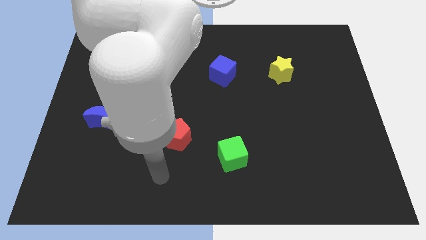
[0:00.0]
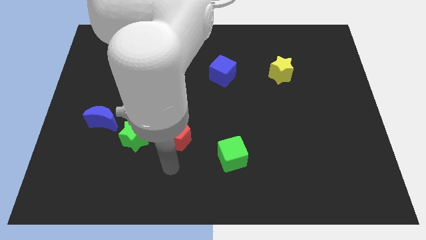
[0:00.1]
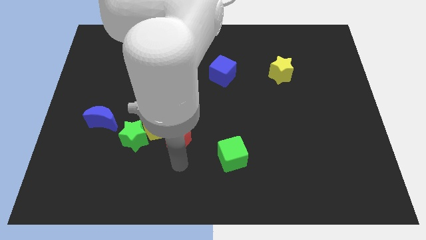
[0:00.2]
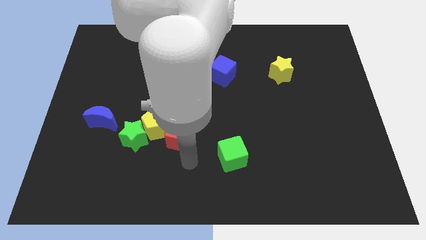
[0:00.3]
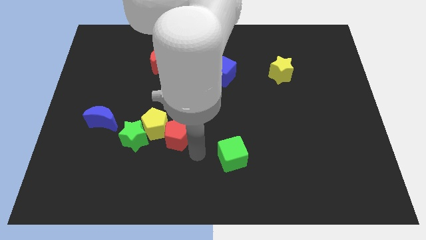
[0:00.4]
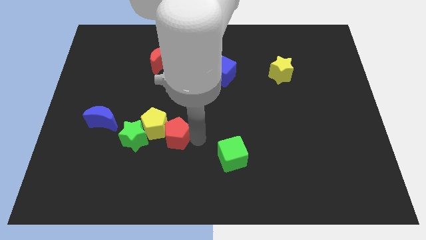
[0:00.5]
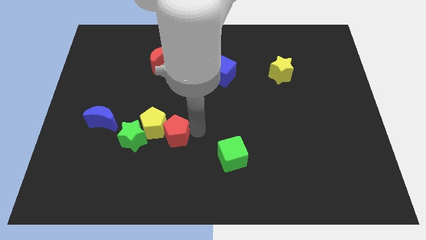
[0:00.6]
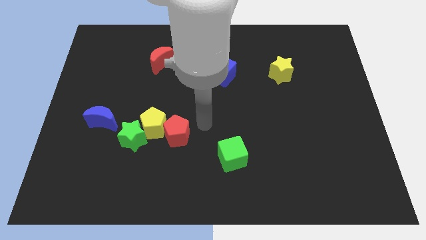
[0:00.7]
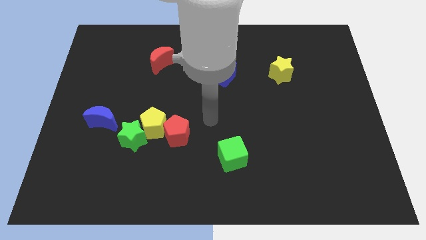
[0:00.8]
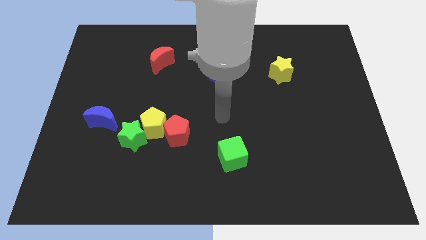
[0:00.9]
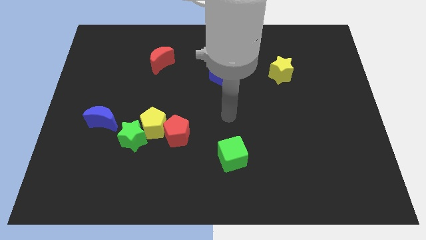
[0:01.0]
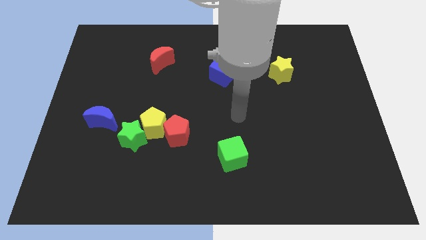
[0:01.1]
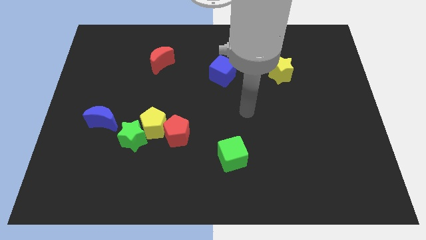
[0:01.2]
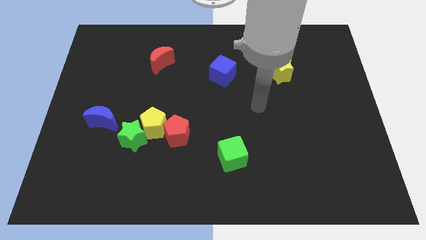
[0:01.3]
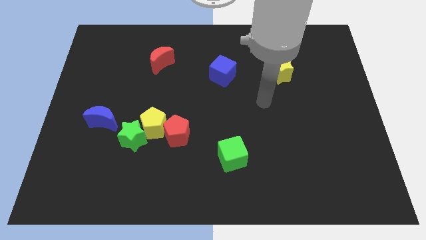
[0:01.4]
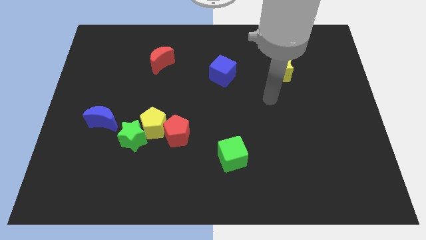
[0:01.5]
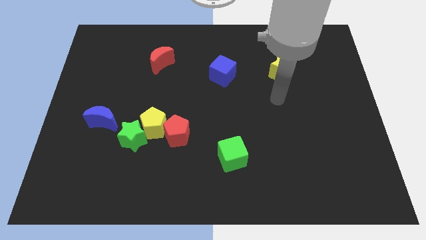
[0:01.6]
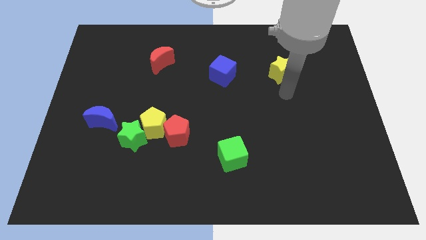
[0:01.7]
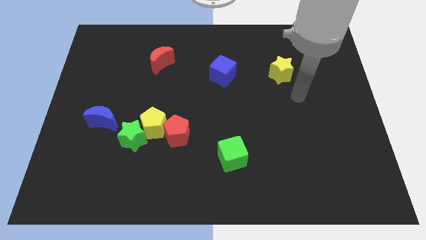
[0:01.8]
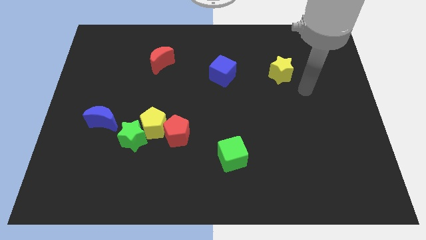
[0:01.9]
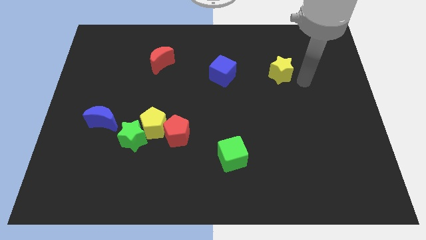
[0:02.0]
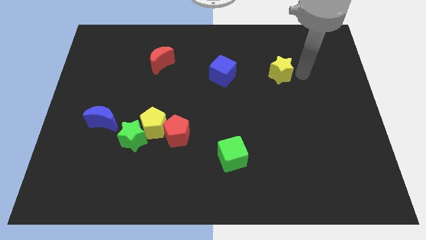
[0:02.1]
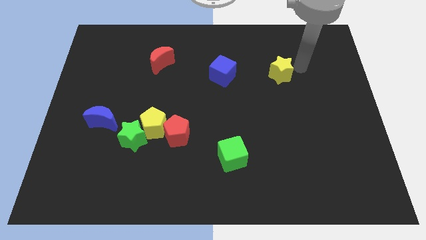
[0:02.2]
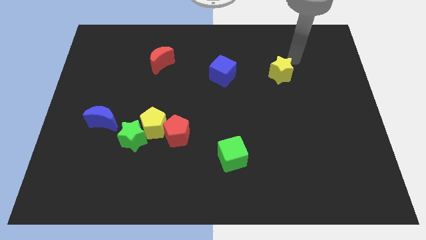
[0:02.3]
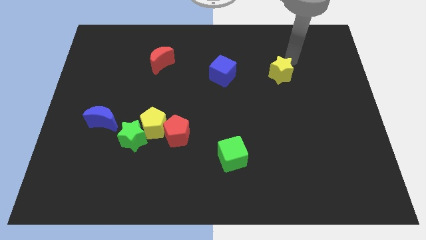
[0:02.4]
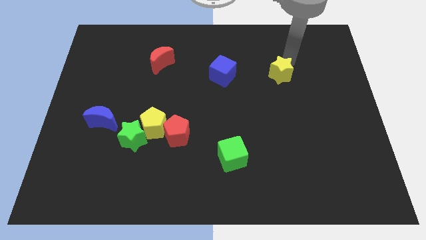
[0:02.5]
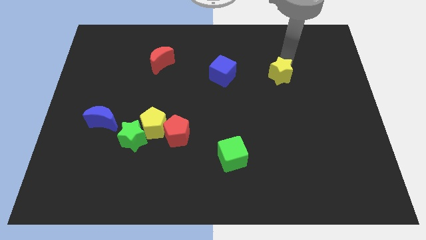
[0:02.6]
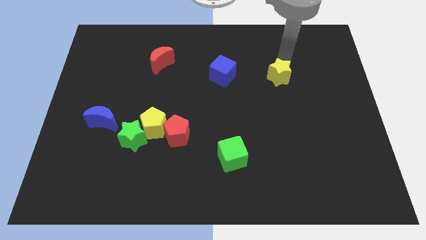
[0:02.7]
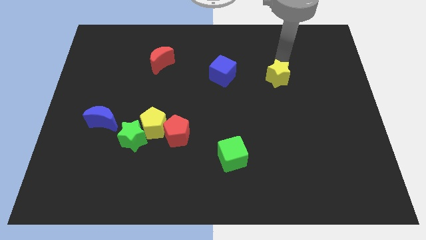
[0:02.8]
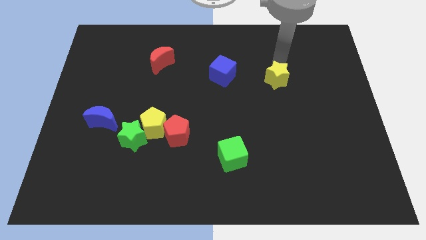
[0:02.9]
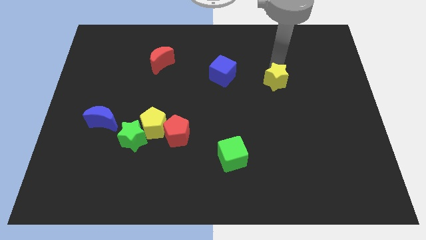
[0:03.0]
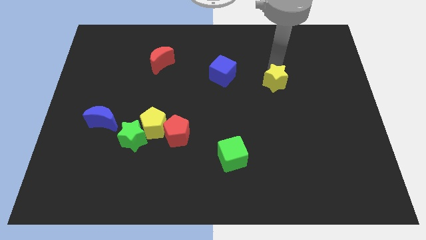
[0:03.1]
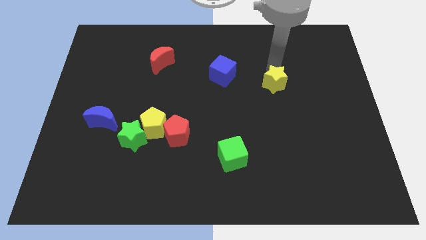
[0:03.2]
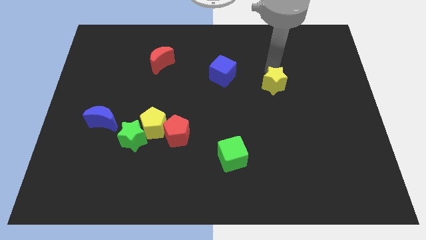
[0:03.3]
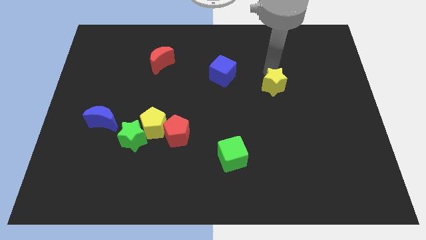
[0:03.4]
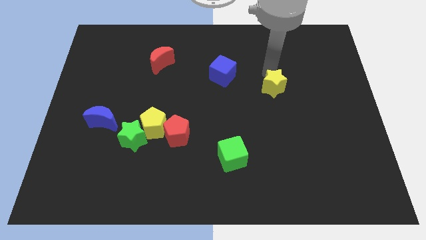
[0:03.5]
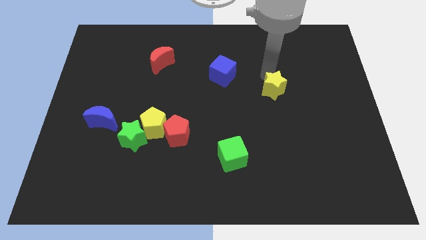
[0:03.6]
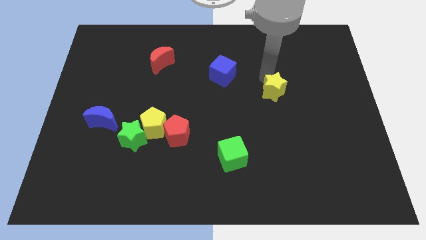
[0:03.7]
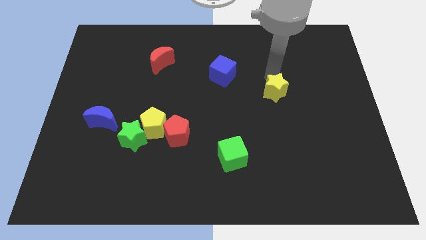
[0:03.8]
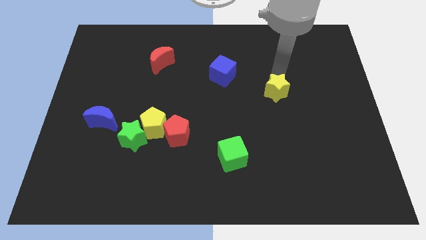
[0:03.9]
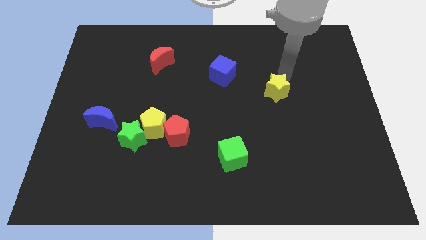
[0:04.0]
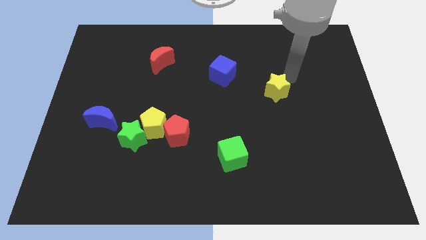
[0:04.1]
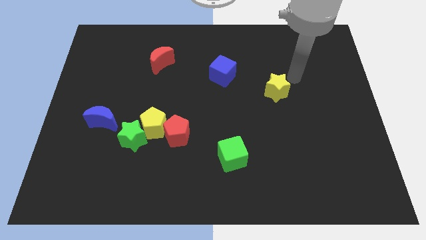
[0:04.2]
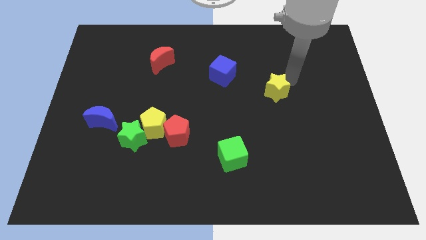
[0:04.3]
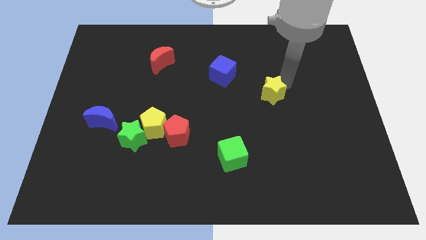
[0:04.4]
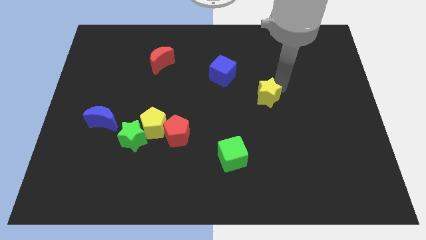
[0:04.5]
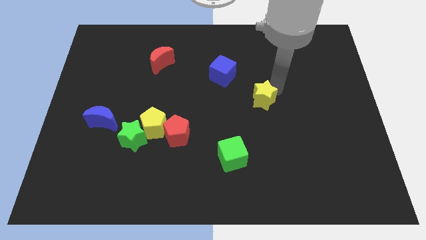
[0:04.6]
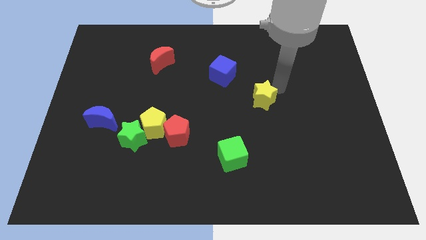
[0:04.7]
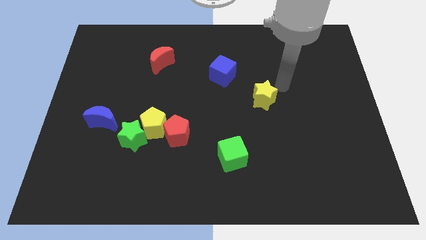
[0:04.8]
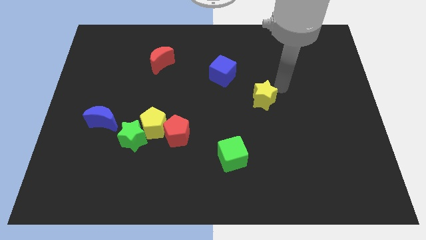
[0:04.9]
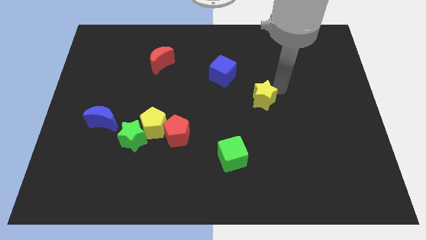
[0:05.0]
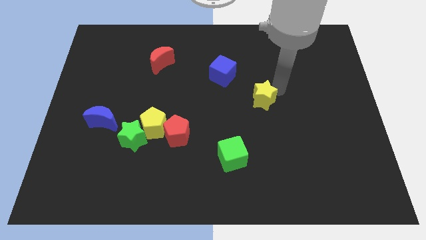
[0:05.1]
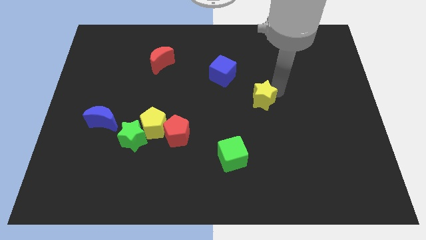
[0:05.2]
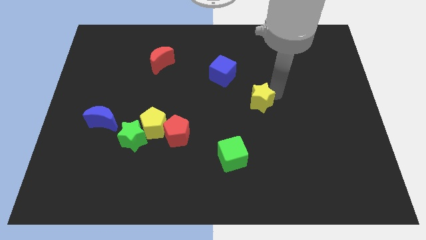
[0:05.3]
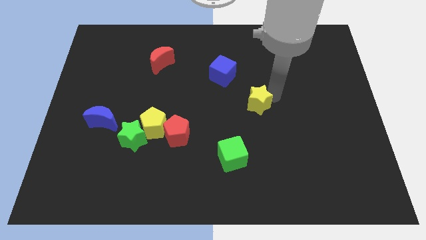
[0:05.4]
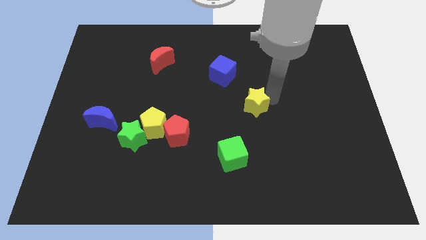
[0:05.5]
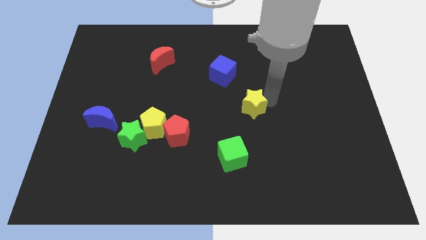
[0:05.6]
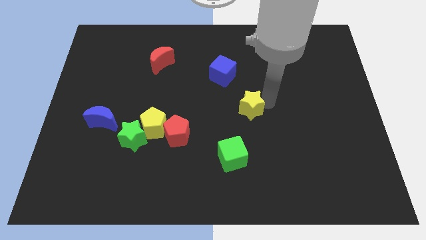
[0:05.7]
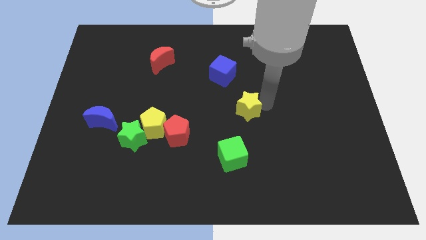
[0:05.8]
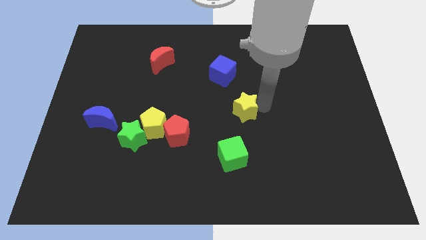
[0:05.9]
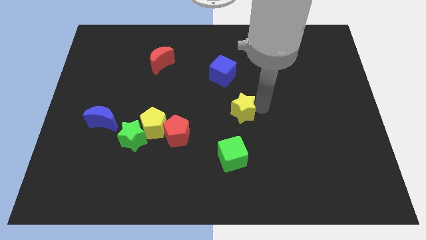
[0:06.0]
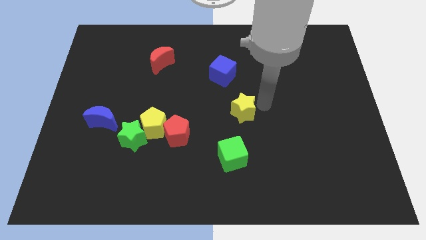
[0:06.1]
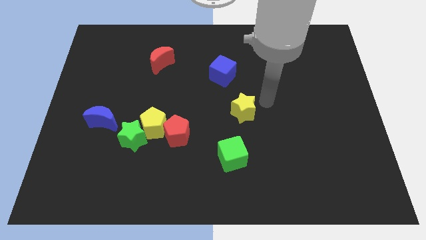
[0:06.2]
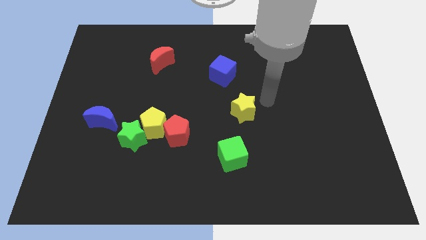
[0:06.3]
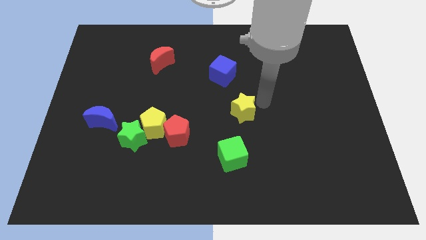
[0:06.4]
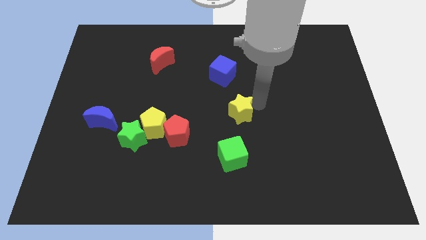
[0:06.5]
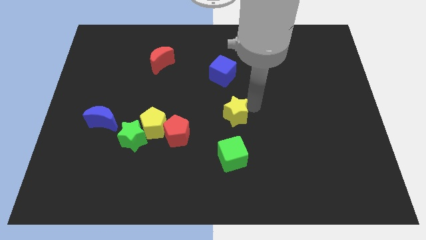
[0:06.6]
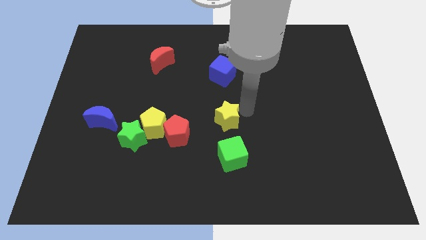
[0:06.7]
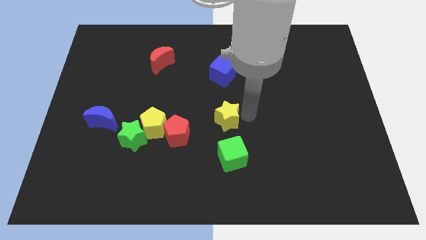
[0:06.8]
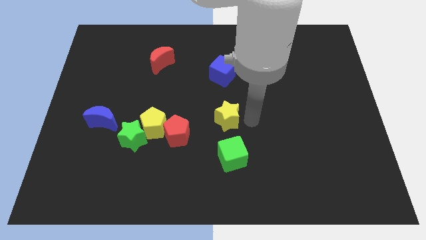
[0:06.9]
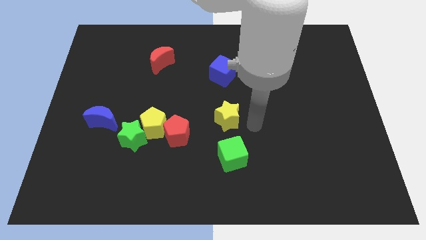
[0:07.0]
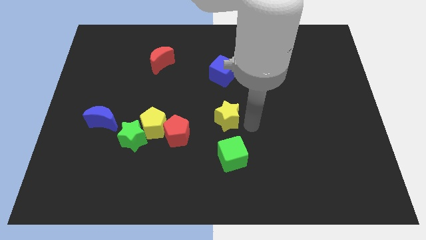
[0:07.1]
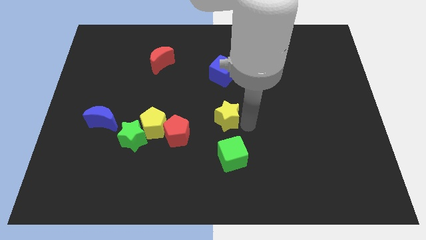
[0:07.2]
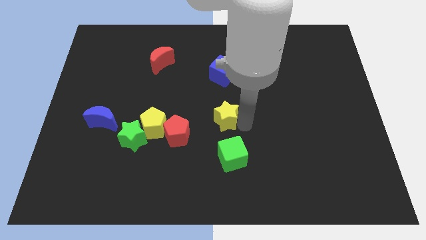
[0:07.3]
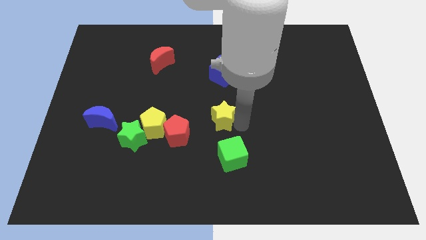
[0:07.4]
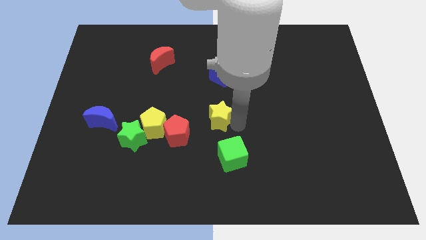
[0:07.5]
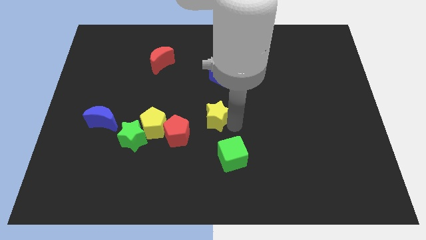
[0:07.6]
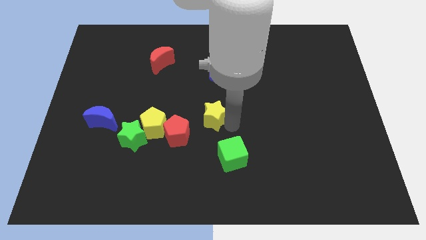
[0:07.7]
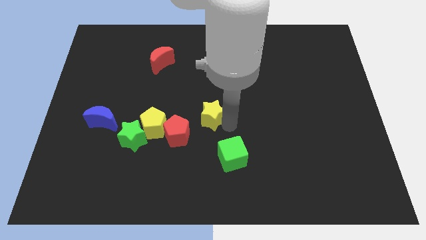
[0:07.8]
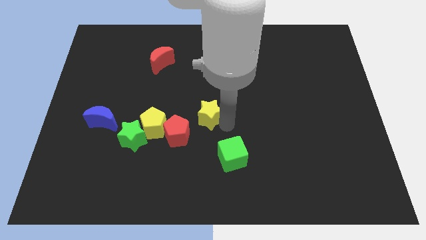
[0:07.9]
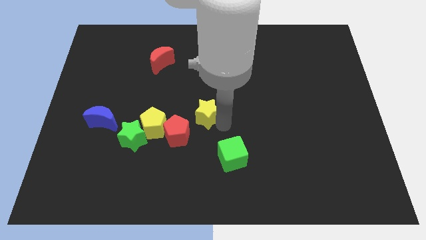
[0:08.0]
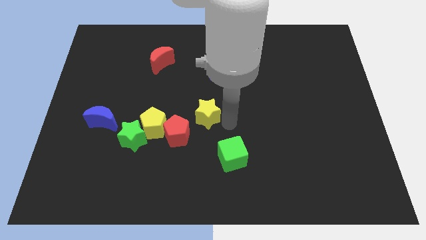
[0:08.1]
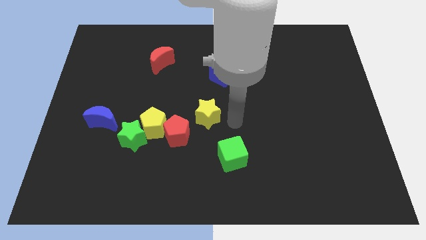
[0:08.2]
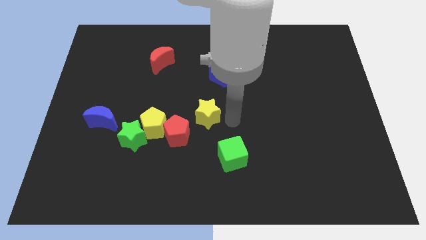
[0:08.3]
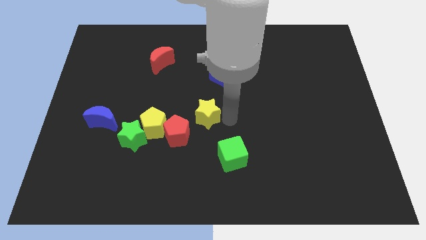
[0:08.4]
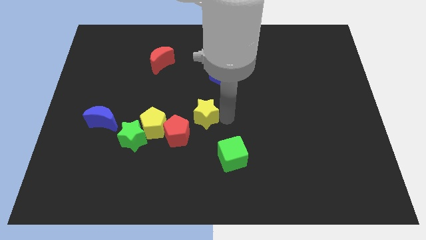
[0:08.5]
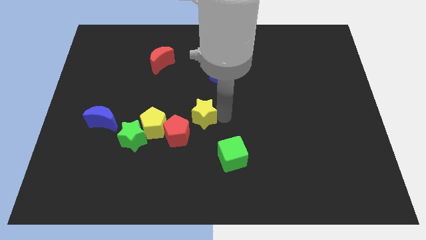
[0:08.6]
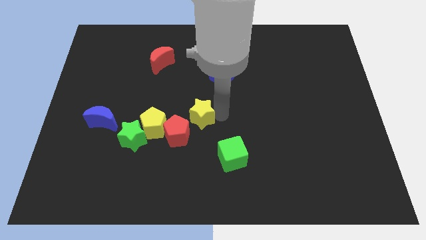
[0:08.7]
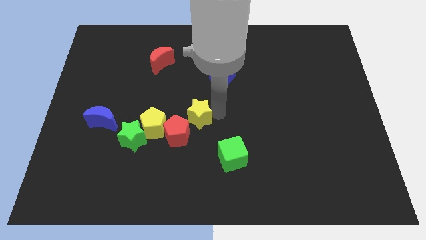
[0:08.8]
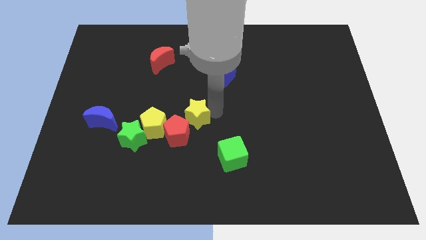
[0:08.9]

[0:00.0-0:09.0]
move the yellow star to the top right of the yellow pentagon
